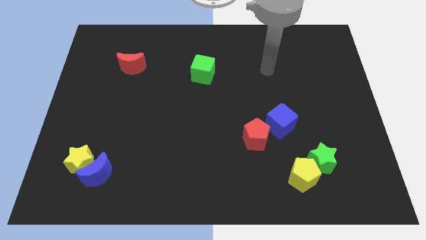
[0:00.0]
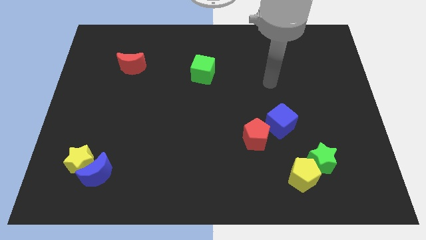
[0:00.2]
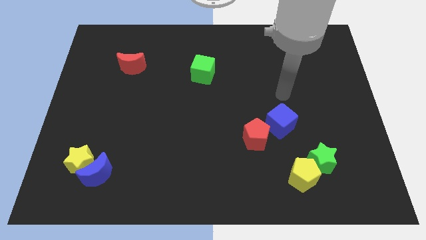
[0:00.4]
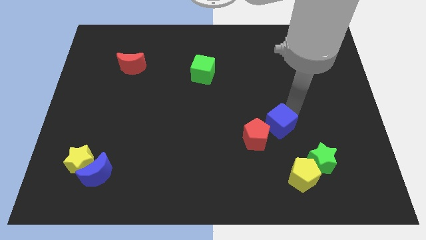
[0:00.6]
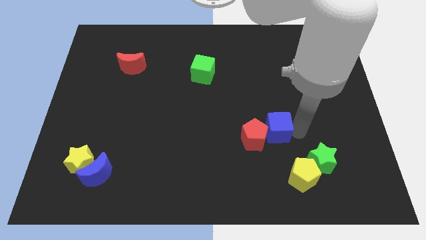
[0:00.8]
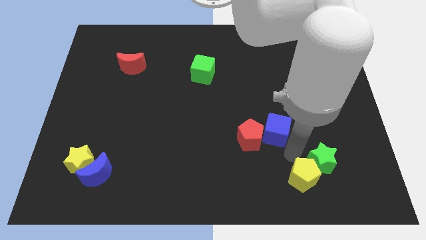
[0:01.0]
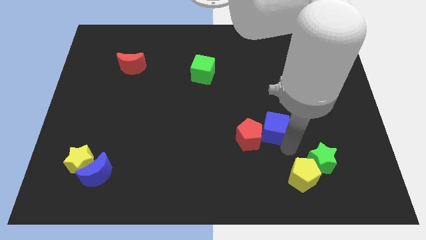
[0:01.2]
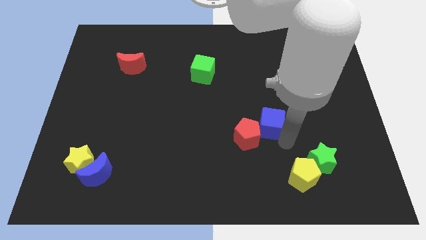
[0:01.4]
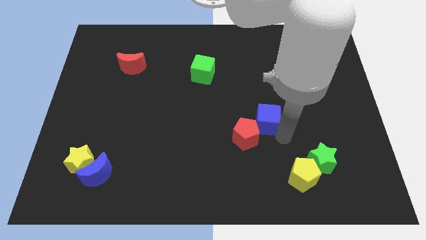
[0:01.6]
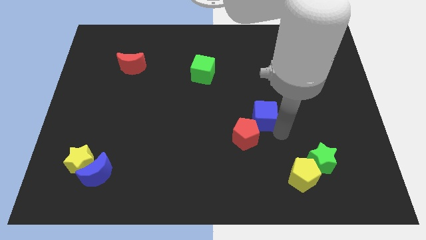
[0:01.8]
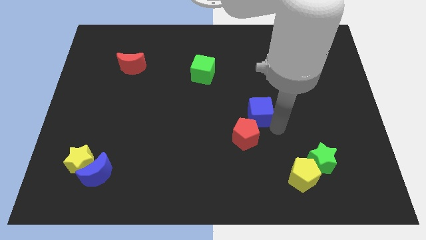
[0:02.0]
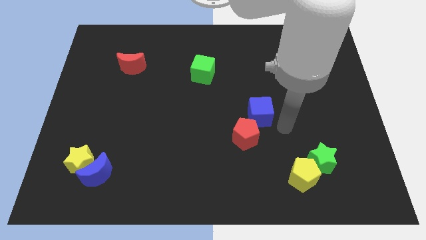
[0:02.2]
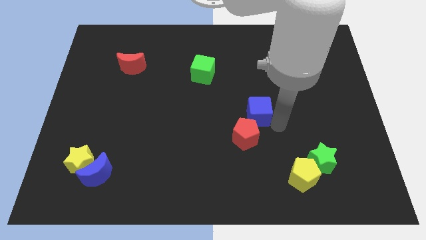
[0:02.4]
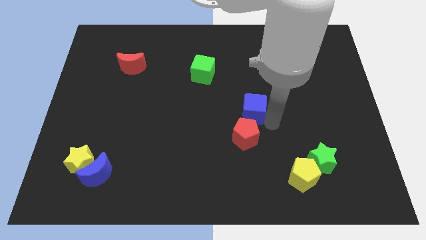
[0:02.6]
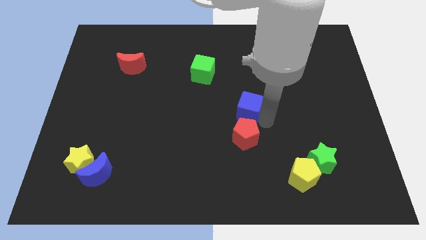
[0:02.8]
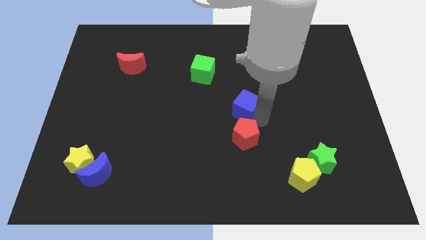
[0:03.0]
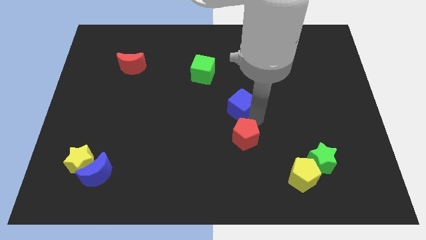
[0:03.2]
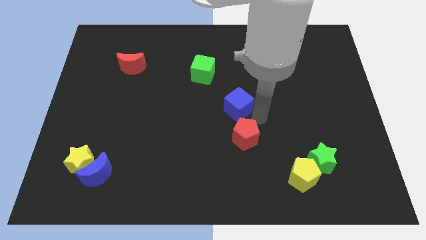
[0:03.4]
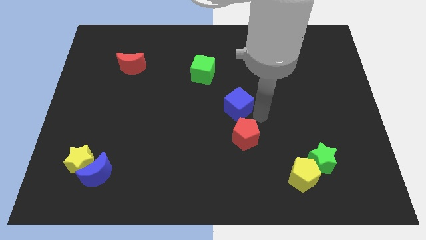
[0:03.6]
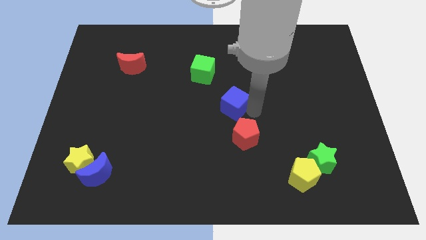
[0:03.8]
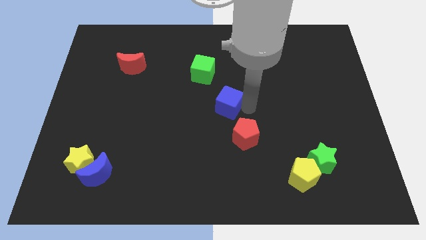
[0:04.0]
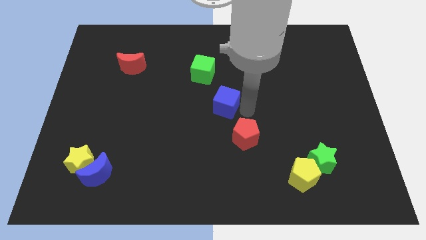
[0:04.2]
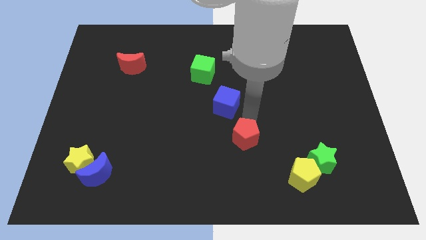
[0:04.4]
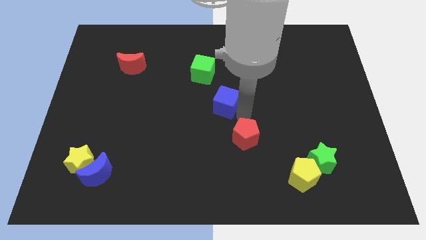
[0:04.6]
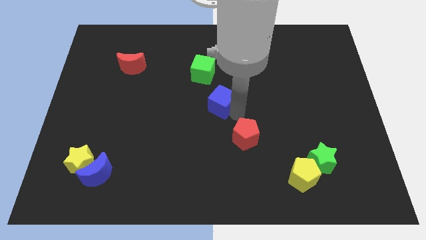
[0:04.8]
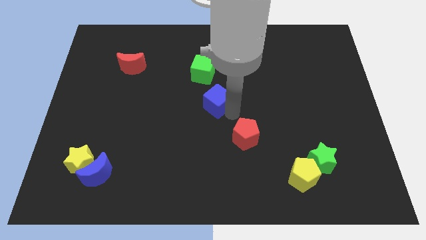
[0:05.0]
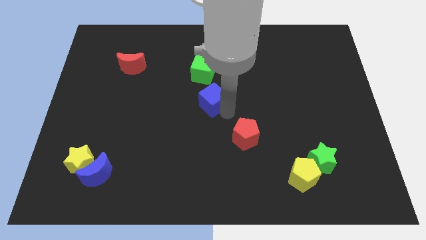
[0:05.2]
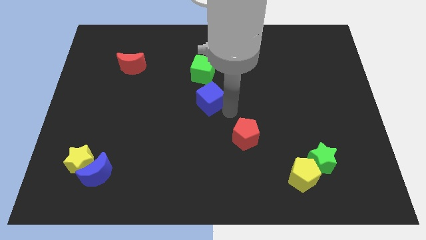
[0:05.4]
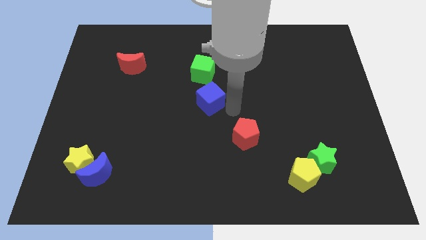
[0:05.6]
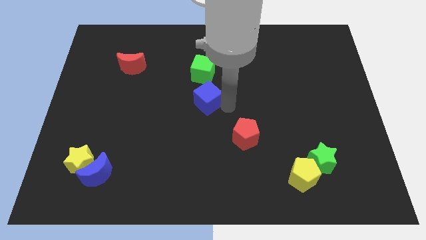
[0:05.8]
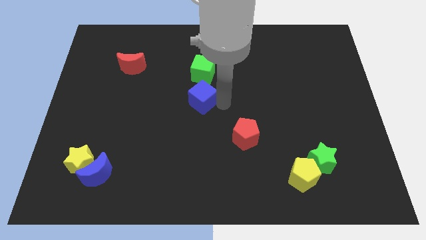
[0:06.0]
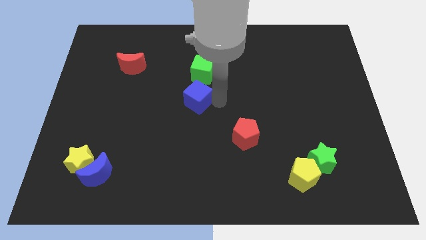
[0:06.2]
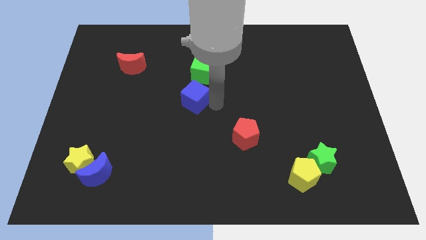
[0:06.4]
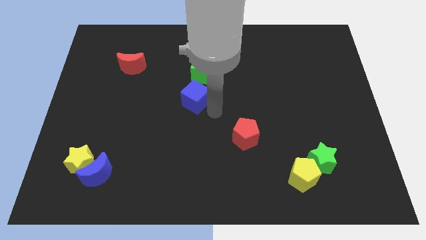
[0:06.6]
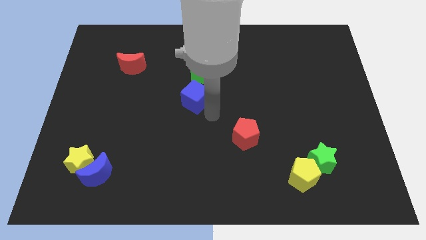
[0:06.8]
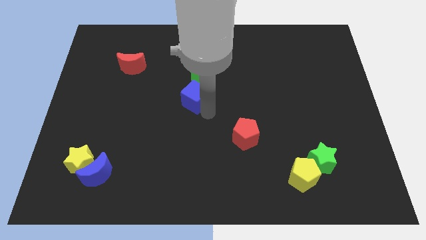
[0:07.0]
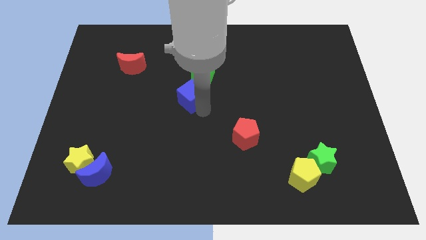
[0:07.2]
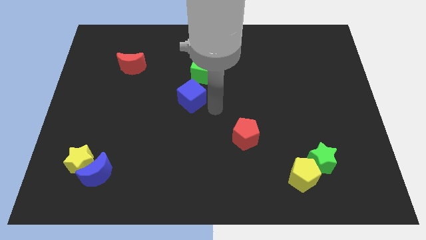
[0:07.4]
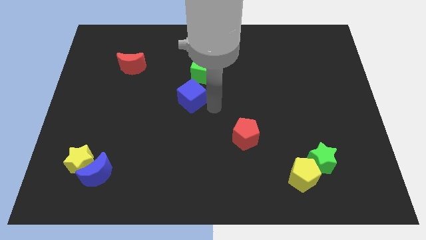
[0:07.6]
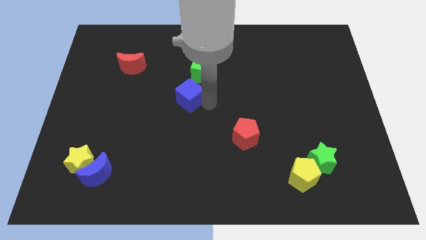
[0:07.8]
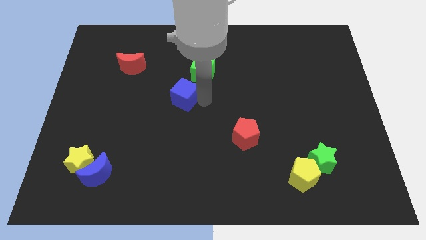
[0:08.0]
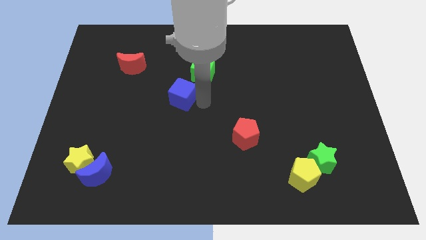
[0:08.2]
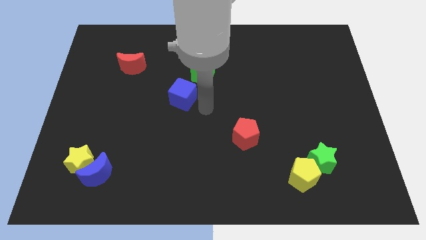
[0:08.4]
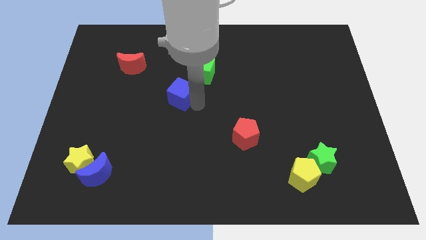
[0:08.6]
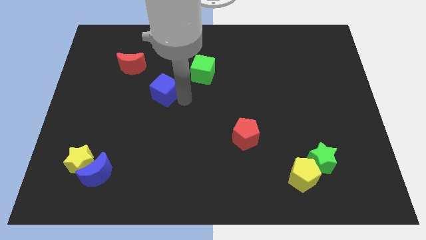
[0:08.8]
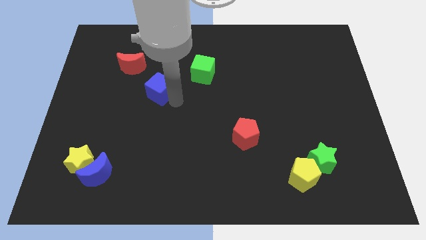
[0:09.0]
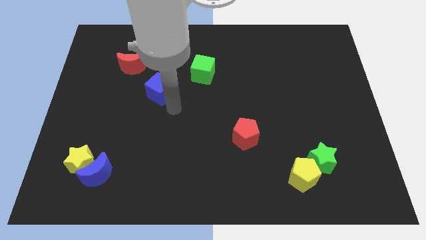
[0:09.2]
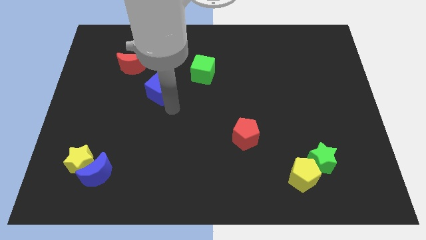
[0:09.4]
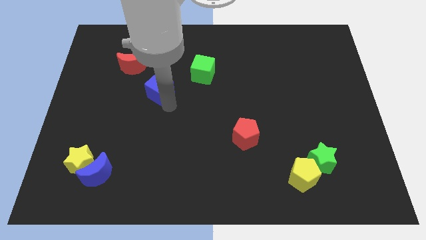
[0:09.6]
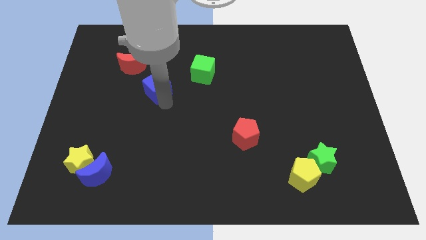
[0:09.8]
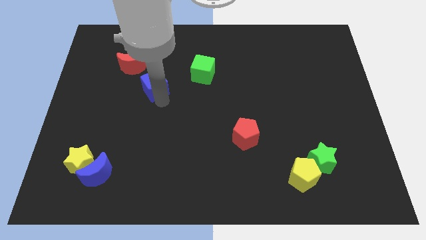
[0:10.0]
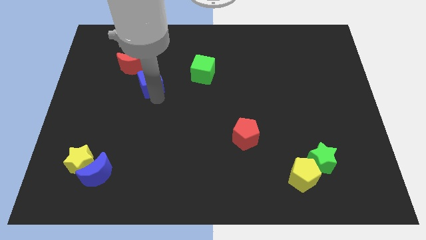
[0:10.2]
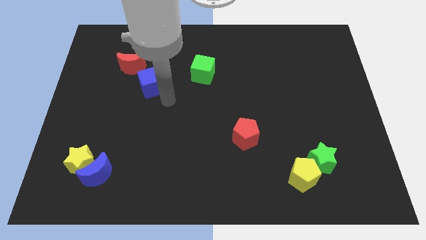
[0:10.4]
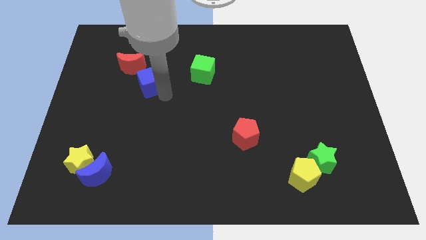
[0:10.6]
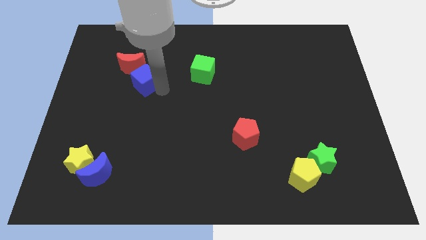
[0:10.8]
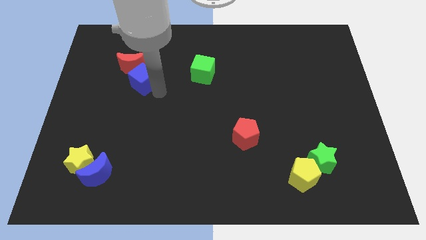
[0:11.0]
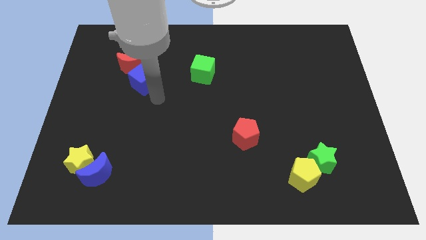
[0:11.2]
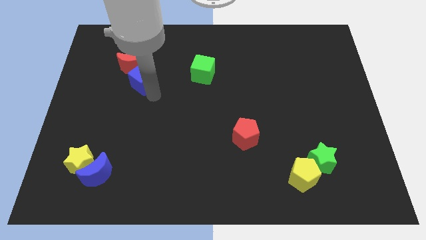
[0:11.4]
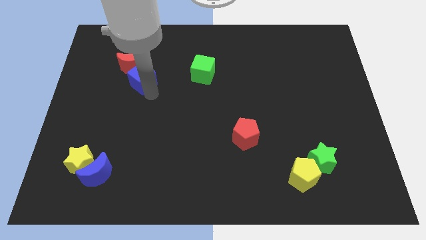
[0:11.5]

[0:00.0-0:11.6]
slide the blue cube to the red moon

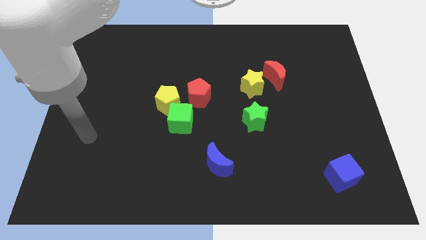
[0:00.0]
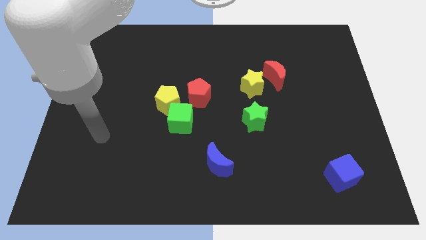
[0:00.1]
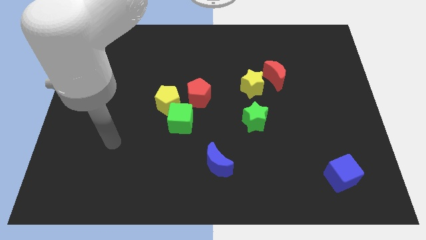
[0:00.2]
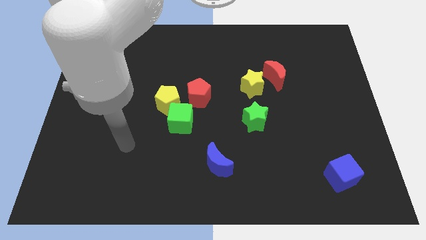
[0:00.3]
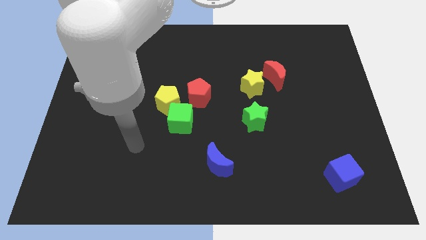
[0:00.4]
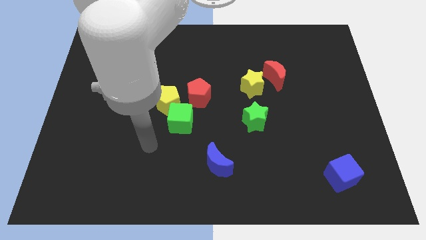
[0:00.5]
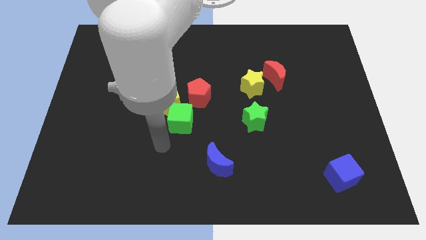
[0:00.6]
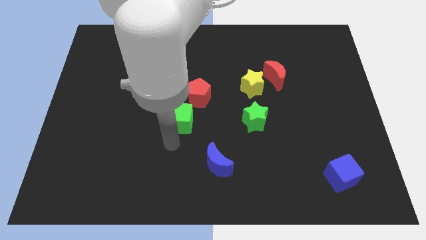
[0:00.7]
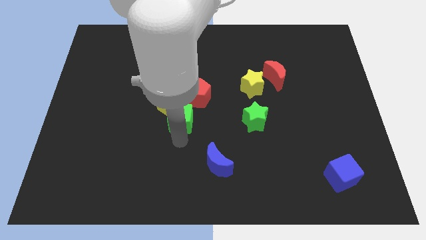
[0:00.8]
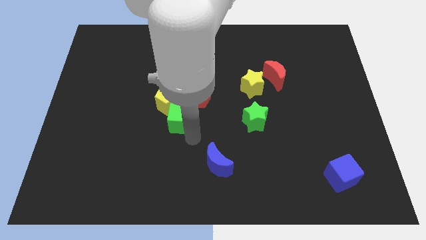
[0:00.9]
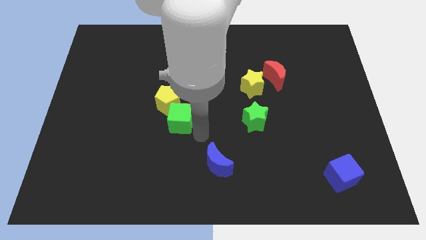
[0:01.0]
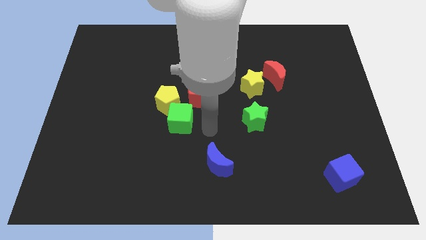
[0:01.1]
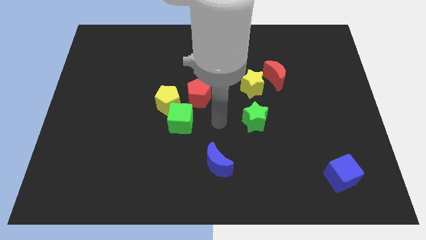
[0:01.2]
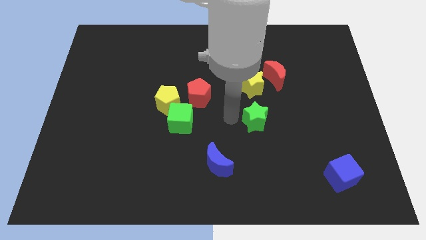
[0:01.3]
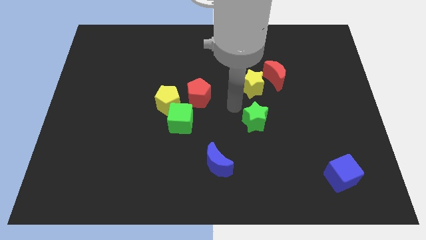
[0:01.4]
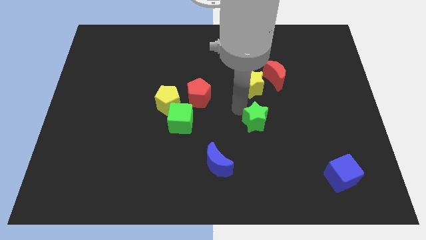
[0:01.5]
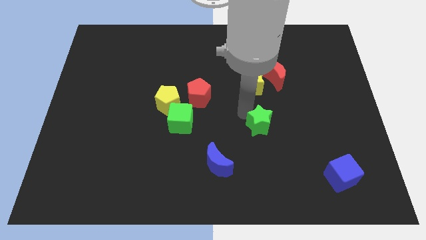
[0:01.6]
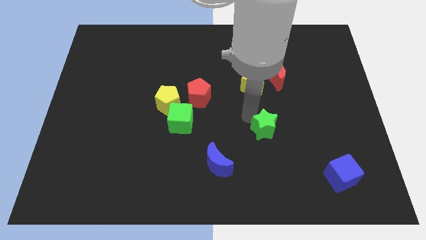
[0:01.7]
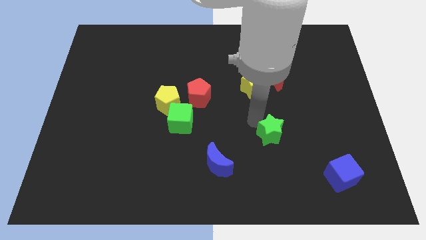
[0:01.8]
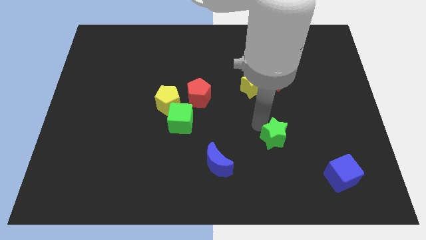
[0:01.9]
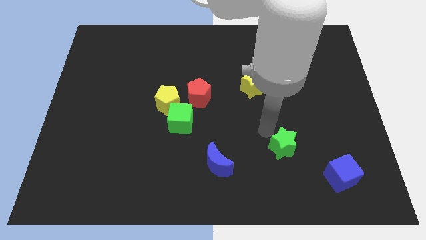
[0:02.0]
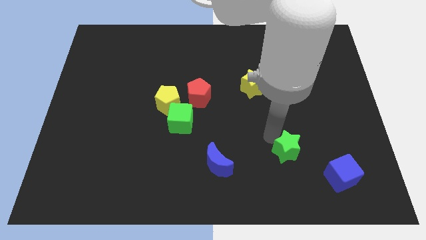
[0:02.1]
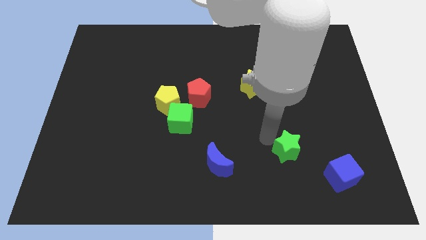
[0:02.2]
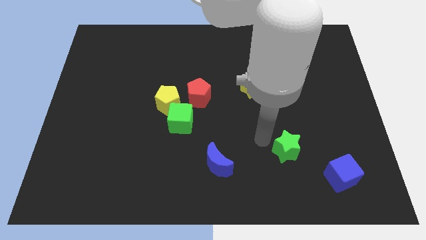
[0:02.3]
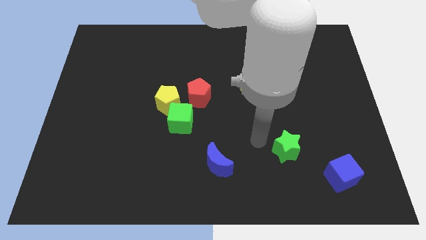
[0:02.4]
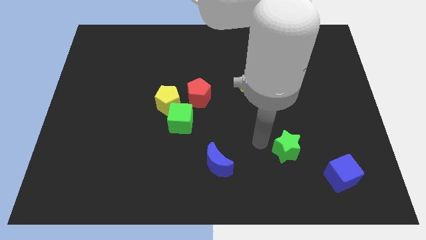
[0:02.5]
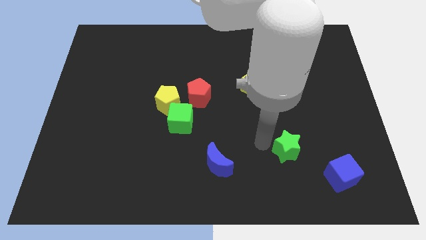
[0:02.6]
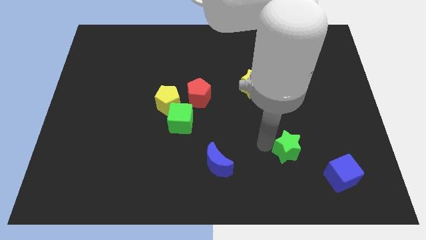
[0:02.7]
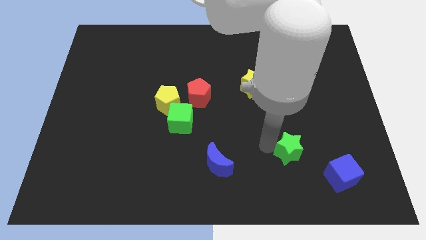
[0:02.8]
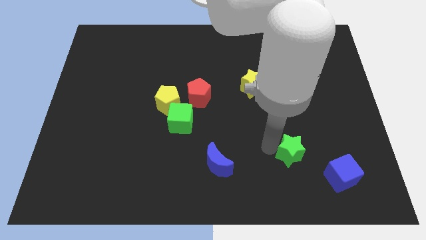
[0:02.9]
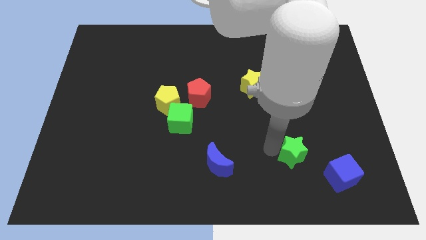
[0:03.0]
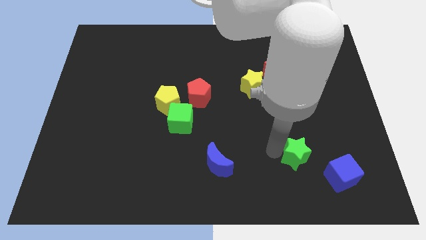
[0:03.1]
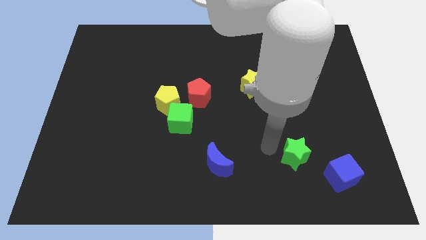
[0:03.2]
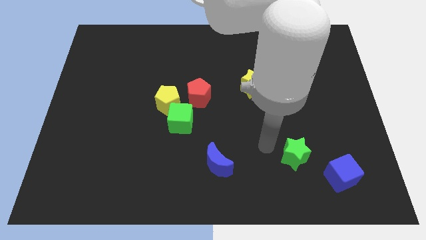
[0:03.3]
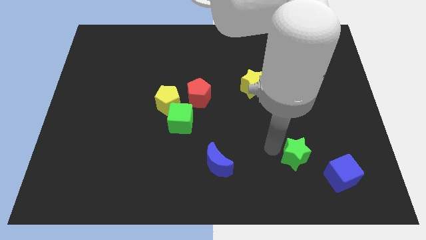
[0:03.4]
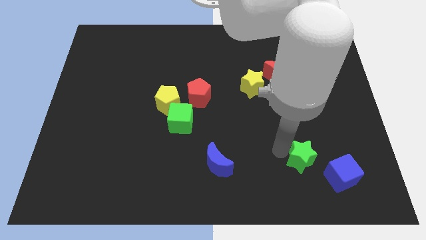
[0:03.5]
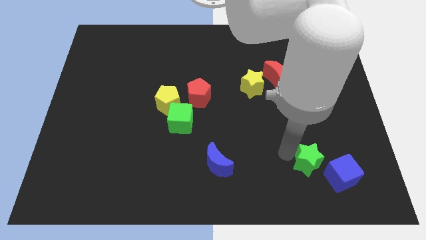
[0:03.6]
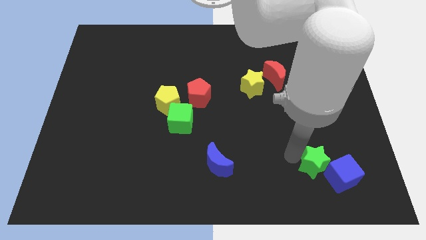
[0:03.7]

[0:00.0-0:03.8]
move the green star to the blue cube
